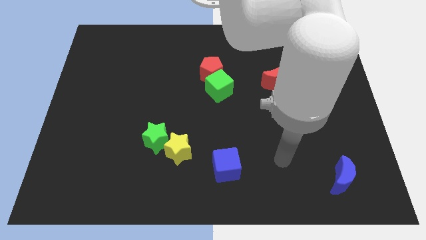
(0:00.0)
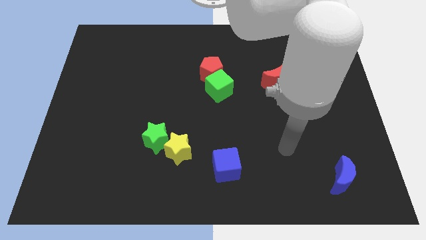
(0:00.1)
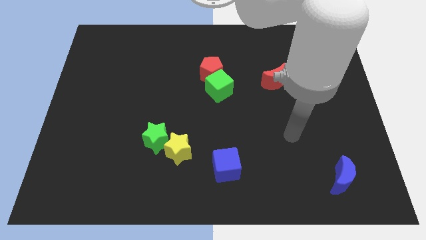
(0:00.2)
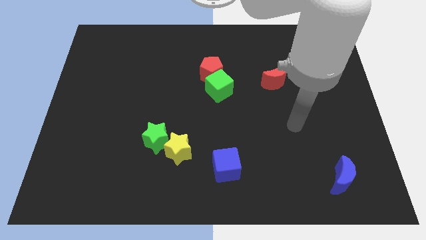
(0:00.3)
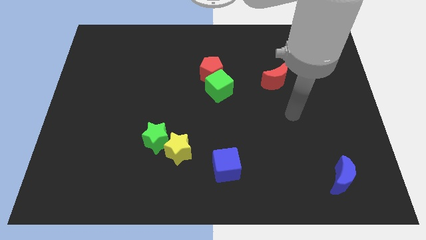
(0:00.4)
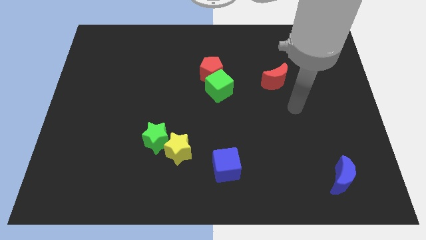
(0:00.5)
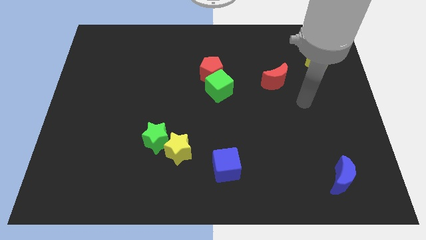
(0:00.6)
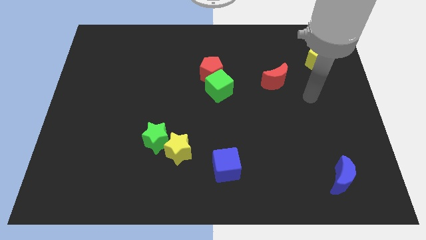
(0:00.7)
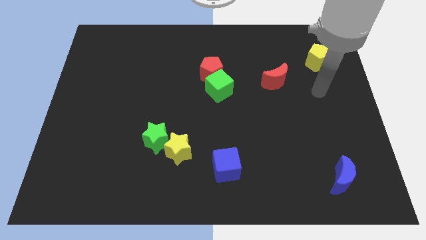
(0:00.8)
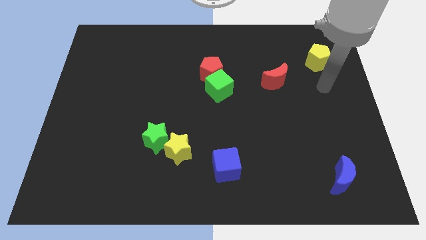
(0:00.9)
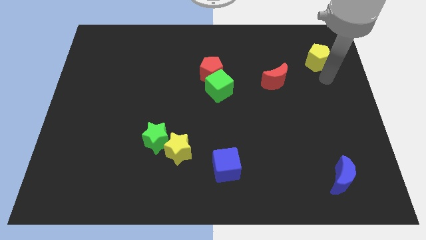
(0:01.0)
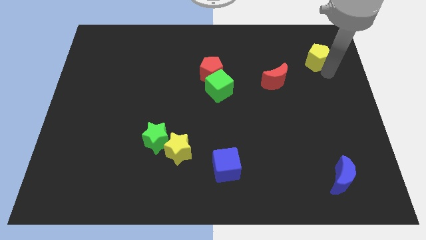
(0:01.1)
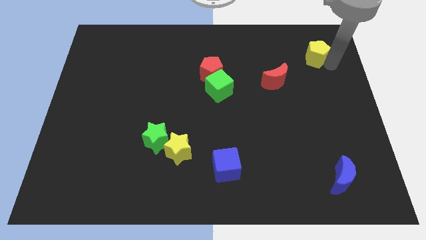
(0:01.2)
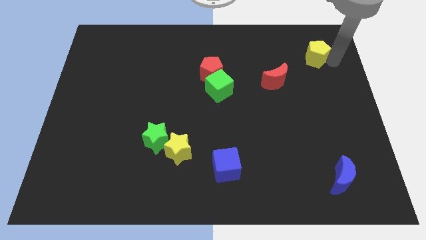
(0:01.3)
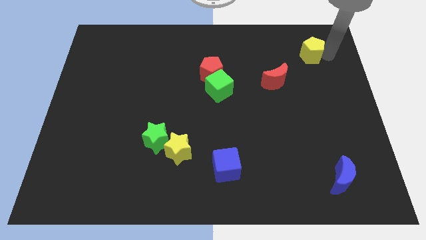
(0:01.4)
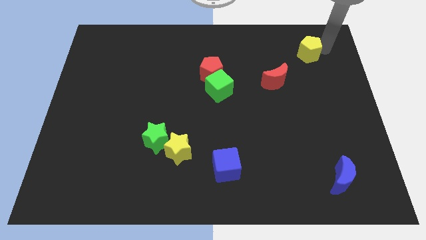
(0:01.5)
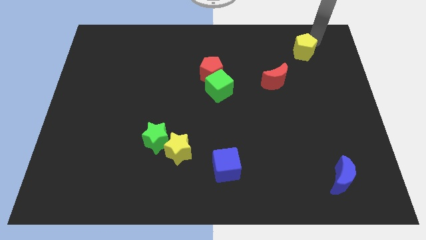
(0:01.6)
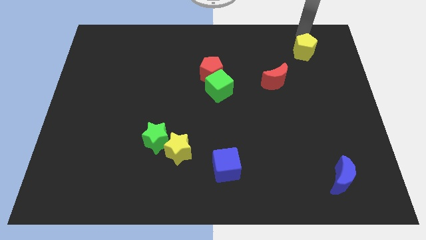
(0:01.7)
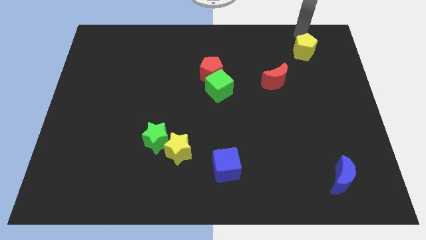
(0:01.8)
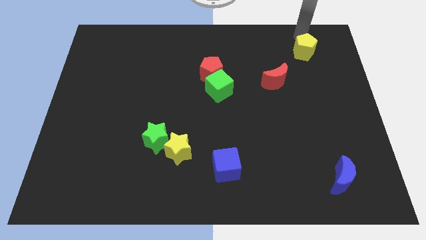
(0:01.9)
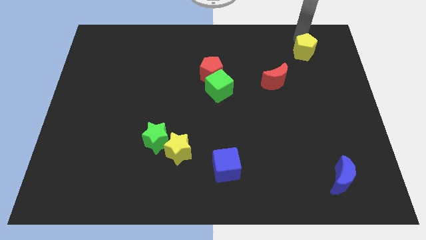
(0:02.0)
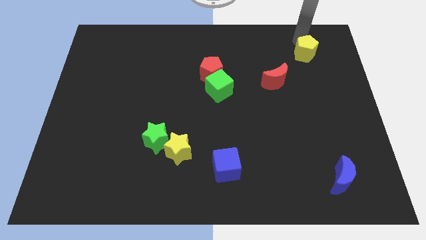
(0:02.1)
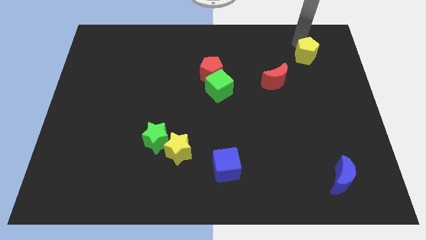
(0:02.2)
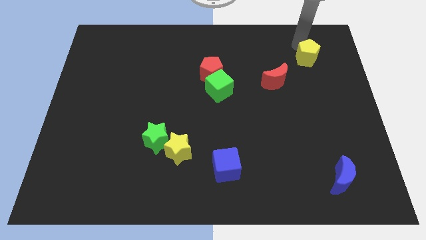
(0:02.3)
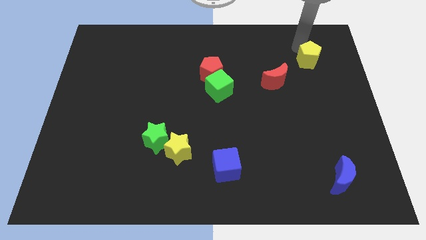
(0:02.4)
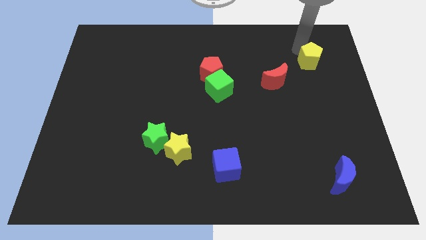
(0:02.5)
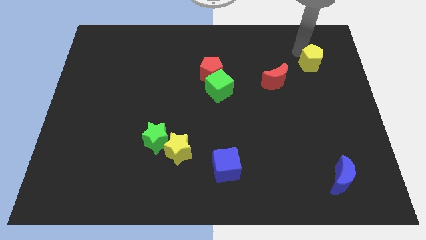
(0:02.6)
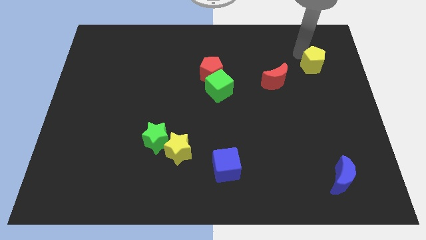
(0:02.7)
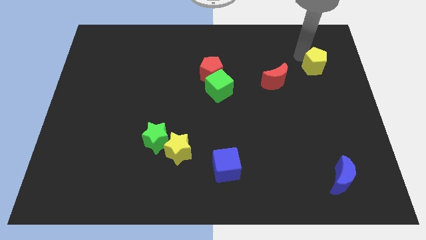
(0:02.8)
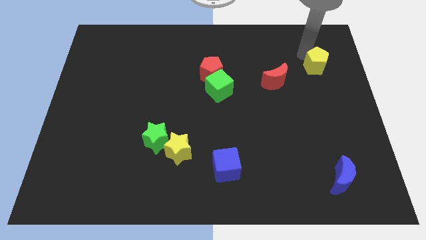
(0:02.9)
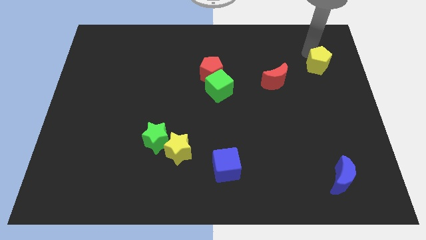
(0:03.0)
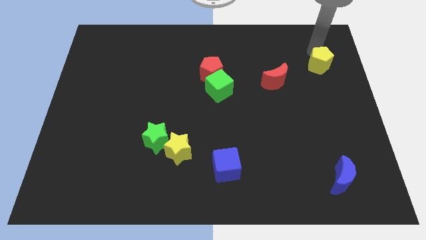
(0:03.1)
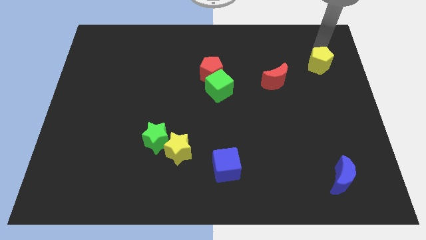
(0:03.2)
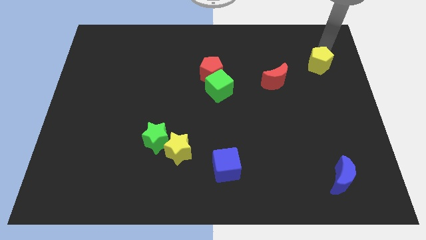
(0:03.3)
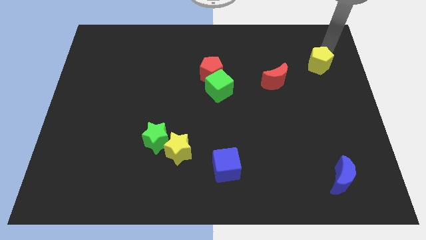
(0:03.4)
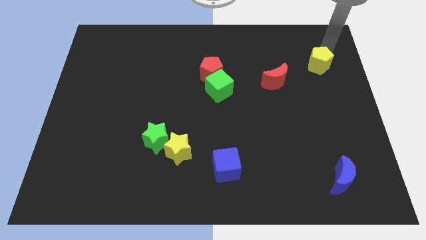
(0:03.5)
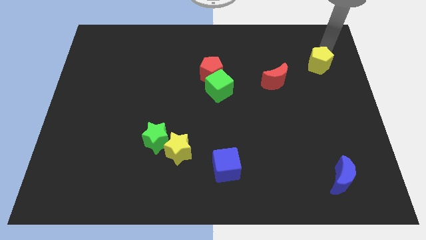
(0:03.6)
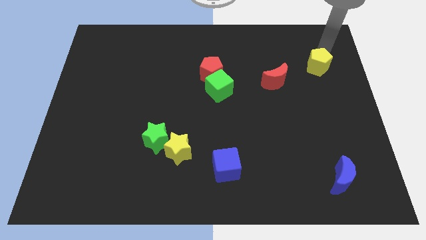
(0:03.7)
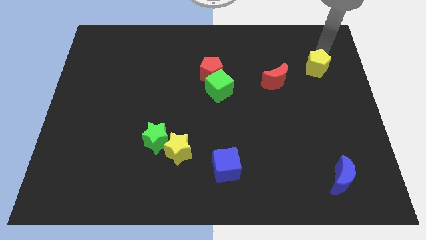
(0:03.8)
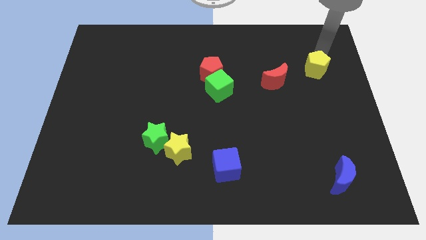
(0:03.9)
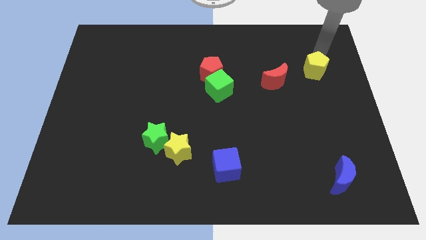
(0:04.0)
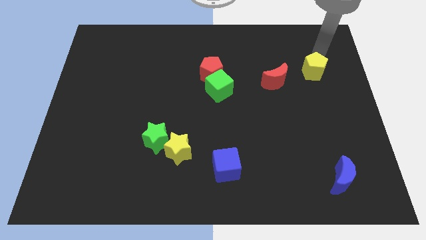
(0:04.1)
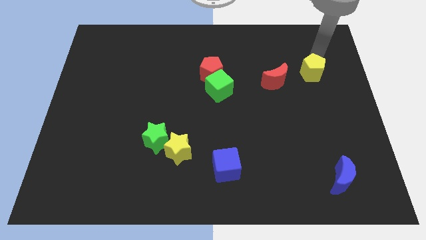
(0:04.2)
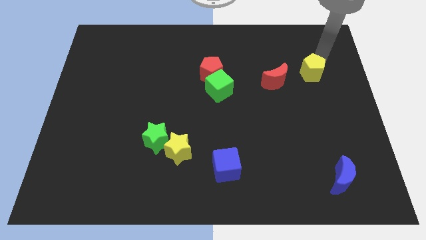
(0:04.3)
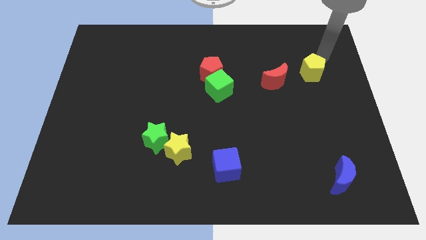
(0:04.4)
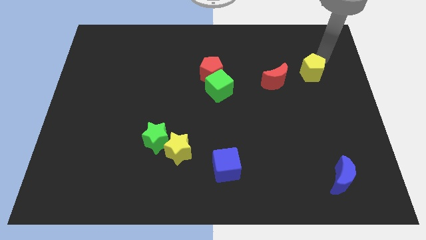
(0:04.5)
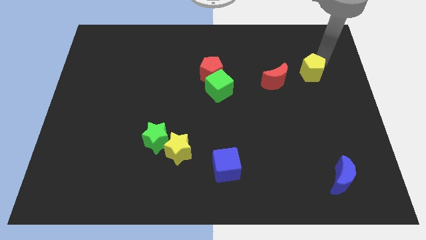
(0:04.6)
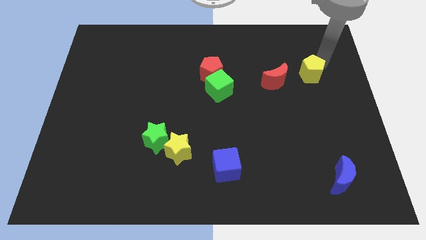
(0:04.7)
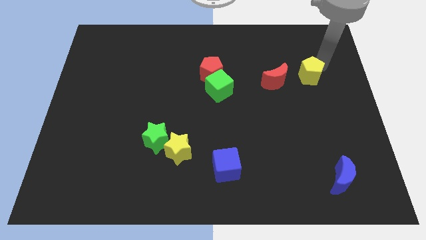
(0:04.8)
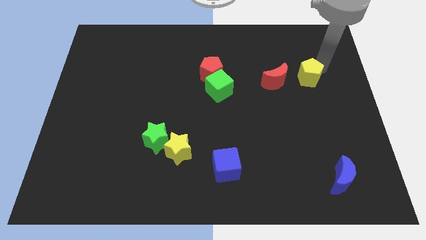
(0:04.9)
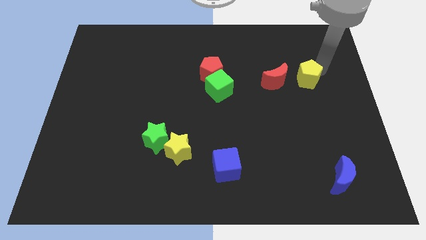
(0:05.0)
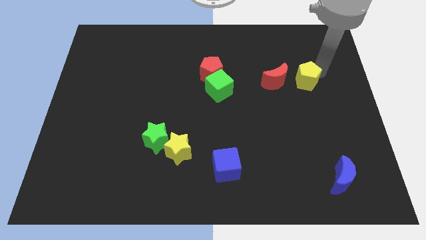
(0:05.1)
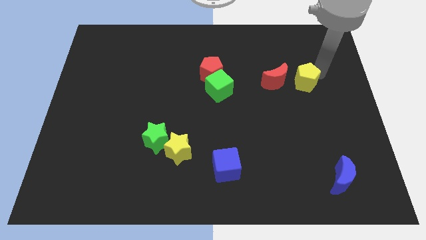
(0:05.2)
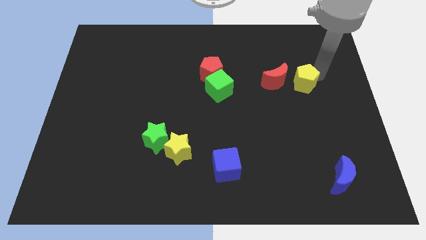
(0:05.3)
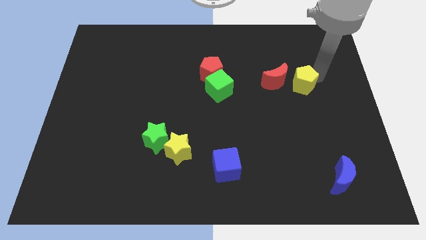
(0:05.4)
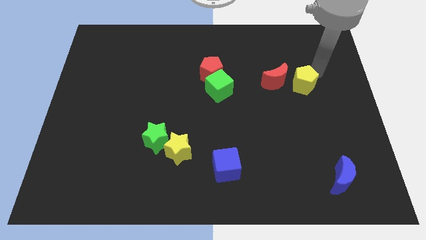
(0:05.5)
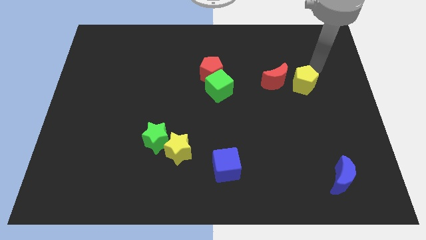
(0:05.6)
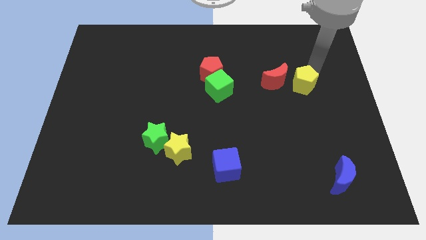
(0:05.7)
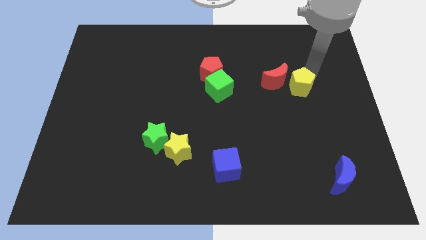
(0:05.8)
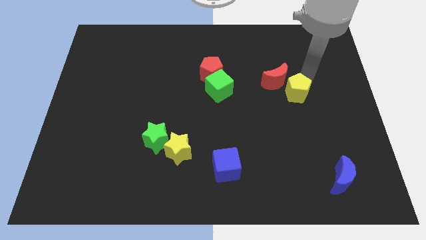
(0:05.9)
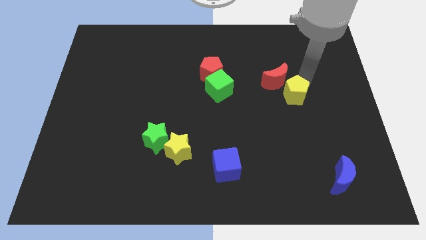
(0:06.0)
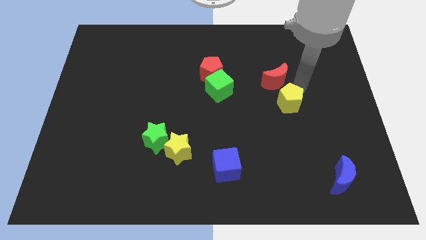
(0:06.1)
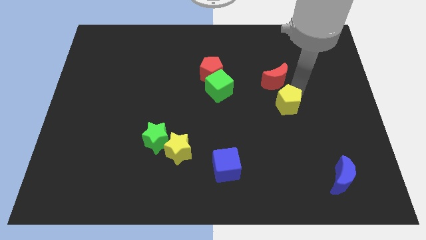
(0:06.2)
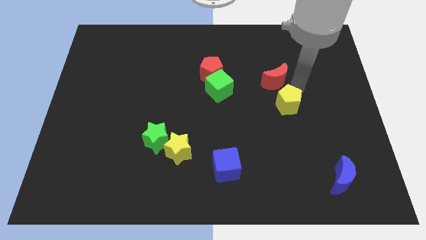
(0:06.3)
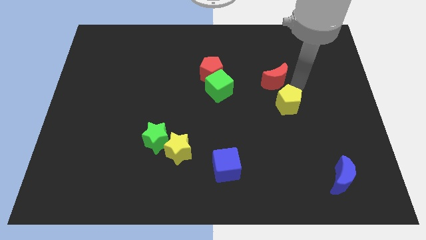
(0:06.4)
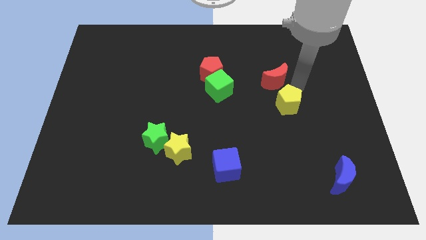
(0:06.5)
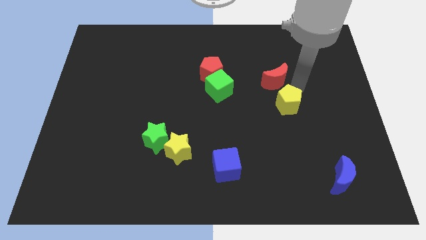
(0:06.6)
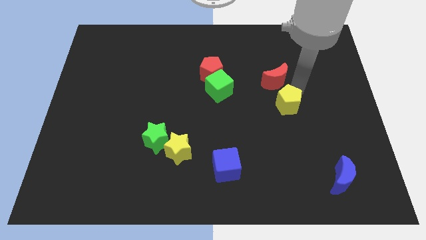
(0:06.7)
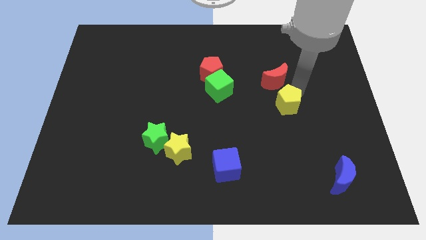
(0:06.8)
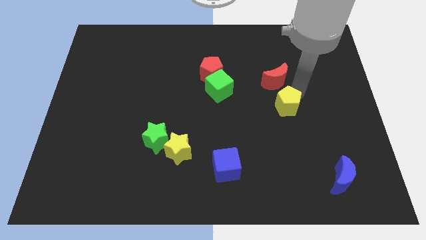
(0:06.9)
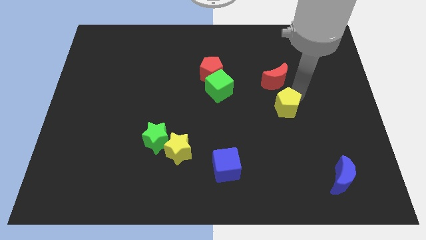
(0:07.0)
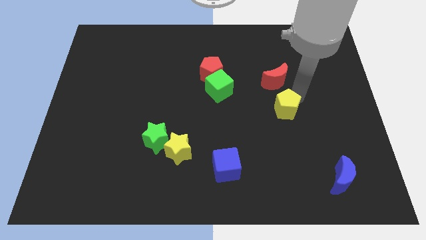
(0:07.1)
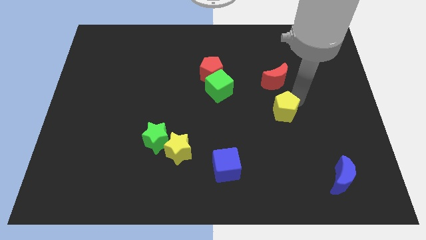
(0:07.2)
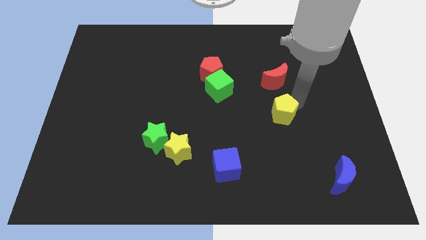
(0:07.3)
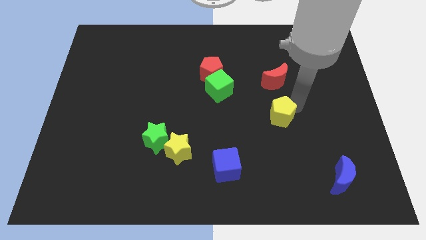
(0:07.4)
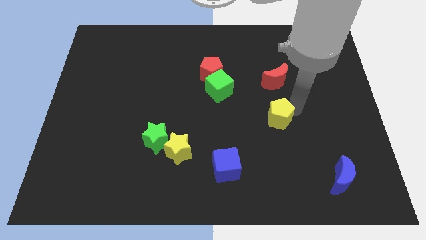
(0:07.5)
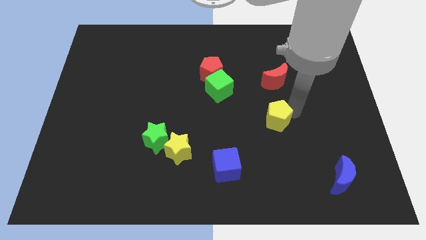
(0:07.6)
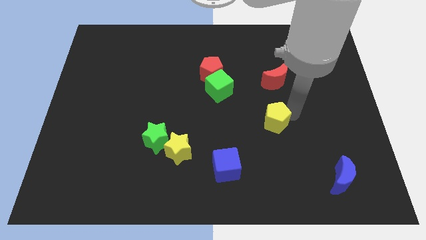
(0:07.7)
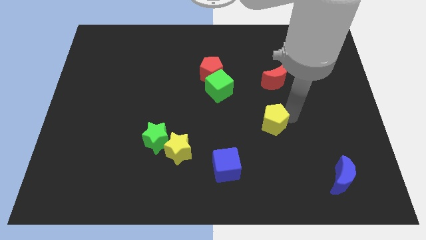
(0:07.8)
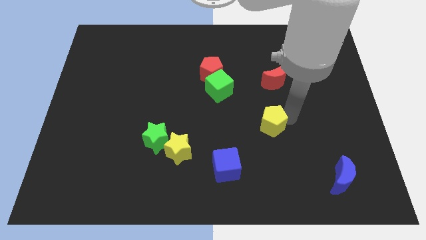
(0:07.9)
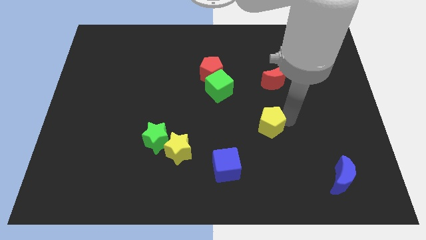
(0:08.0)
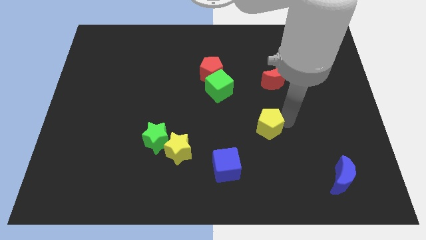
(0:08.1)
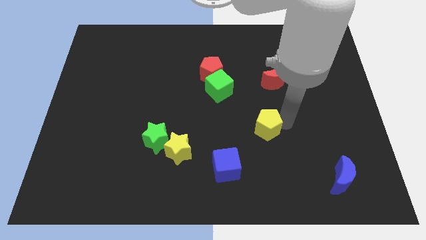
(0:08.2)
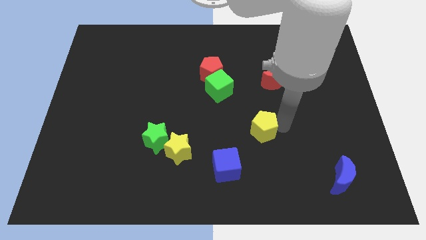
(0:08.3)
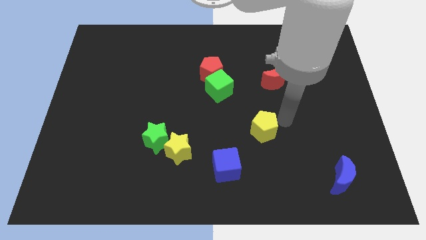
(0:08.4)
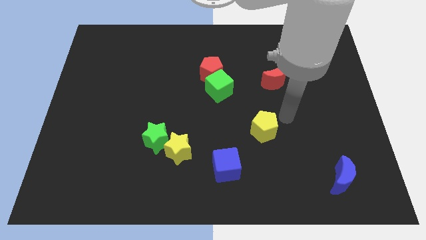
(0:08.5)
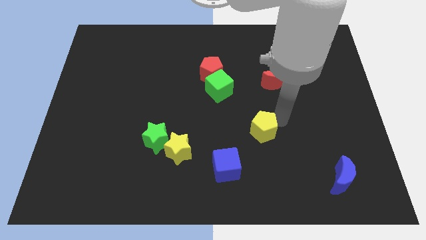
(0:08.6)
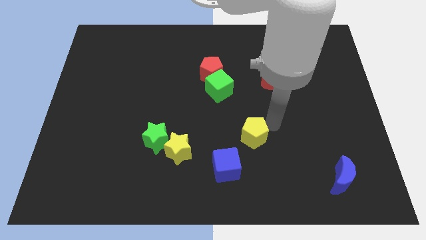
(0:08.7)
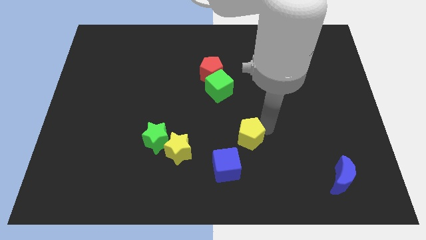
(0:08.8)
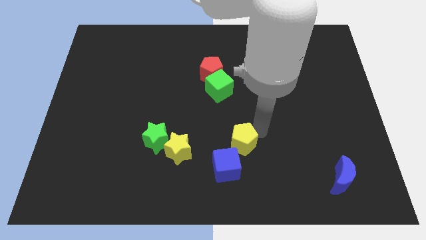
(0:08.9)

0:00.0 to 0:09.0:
put the yellow pentagon right of the yellow star
